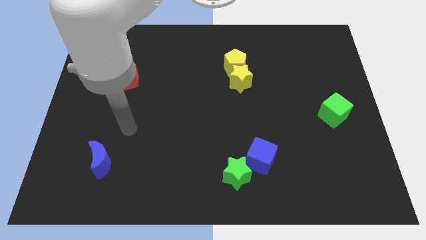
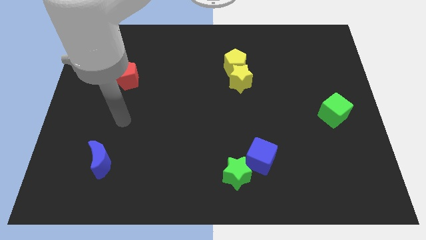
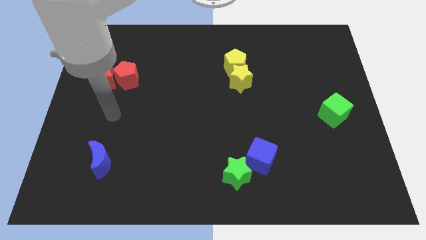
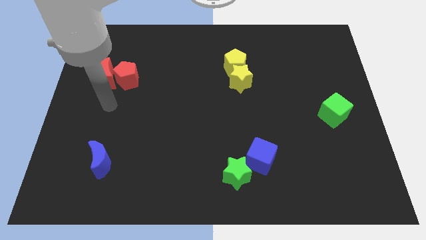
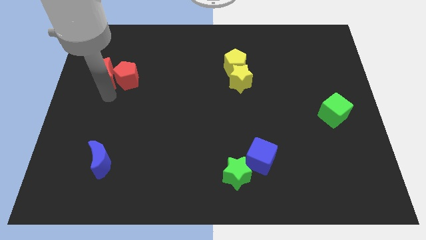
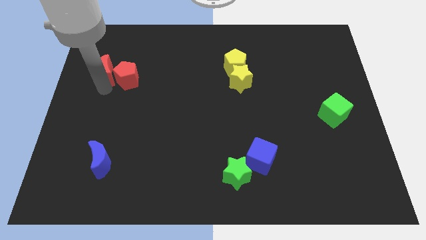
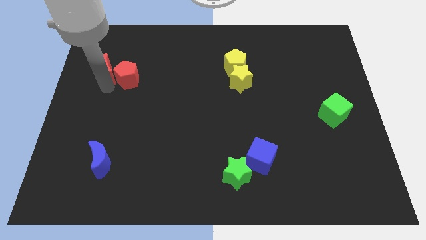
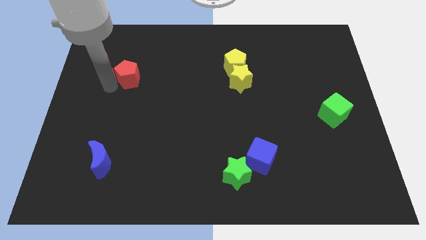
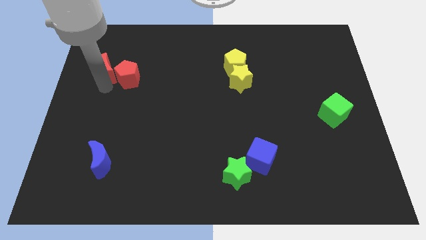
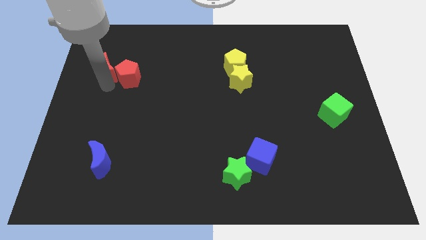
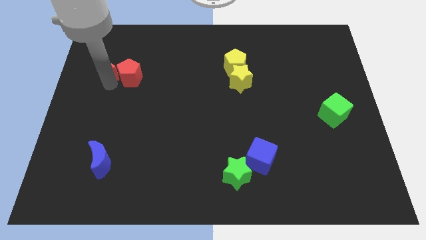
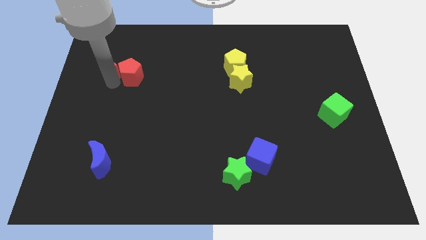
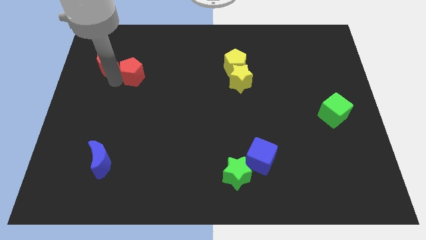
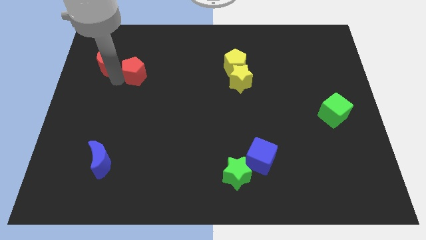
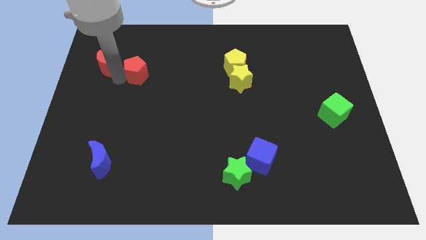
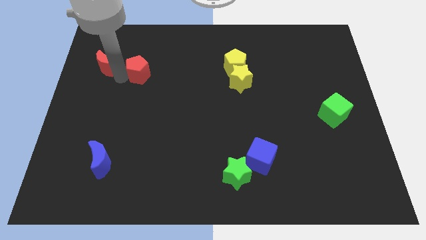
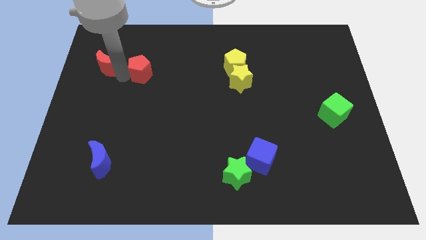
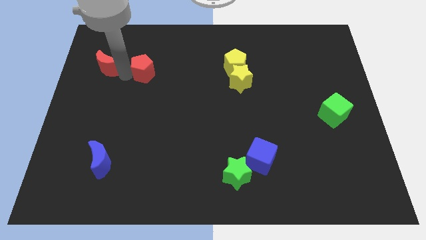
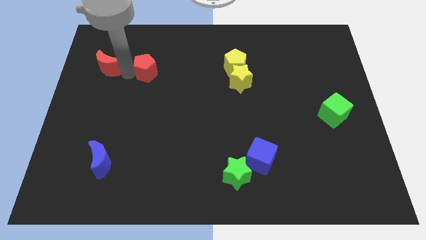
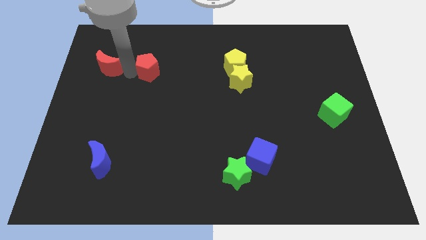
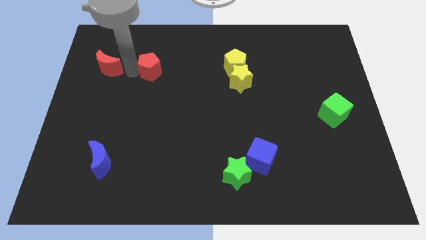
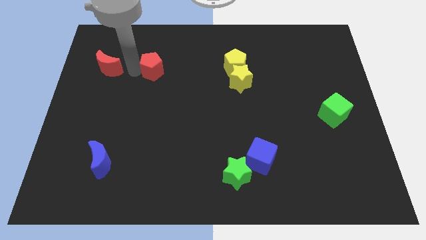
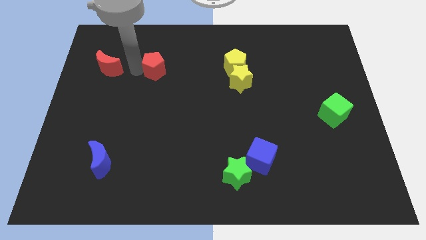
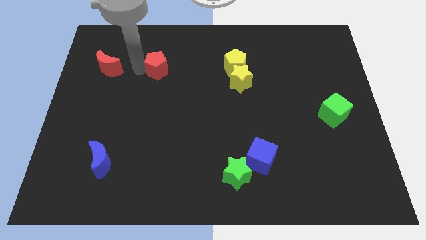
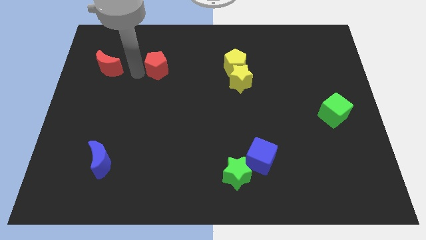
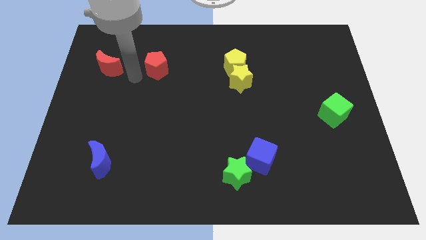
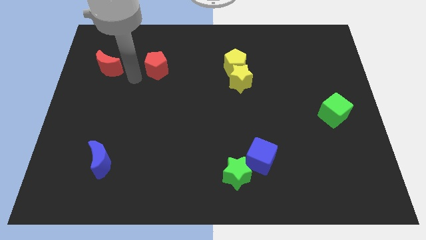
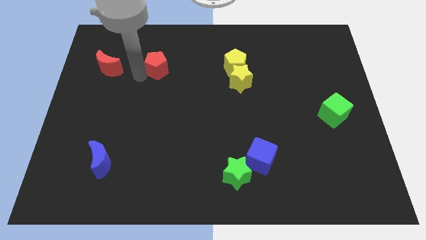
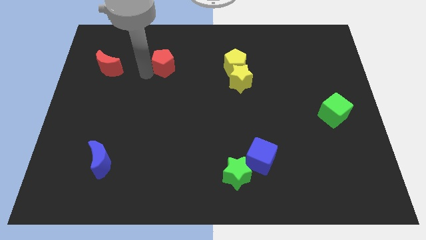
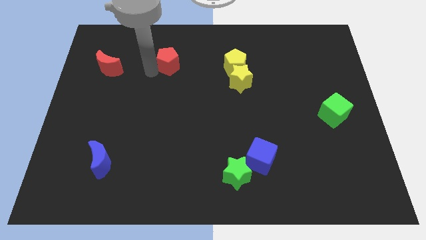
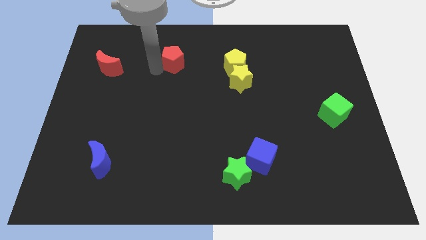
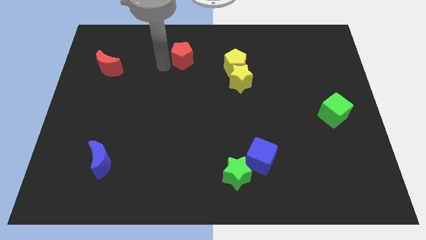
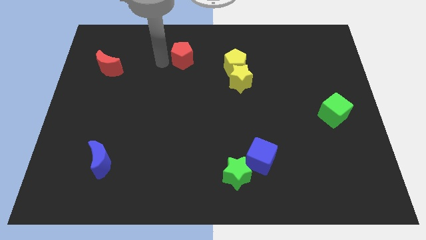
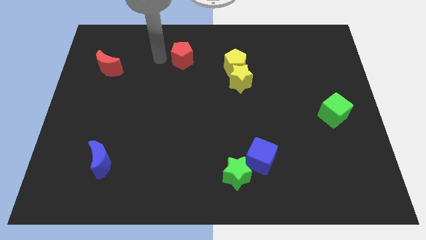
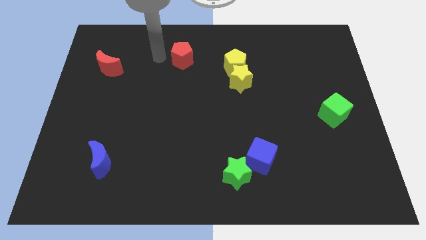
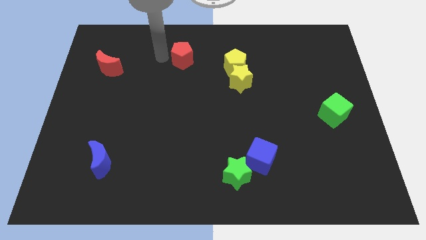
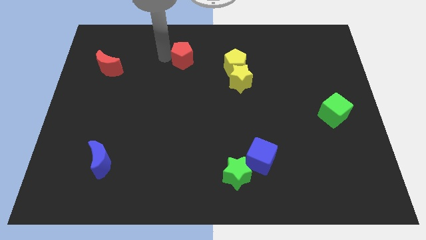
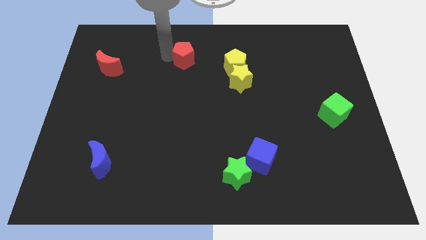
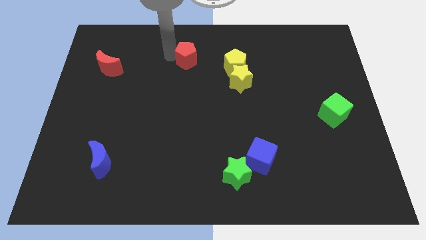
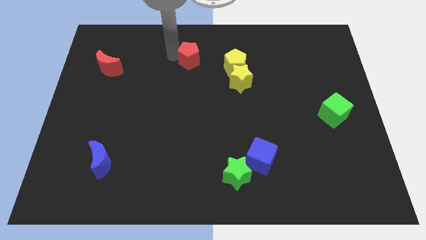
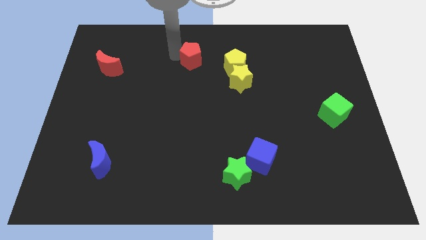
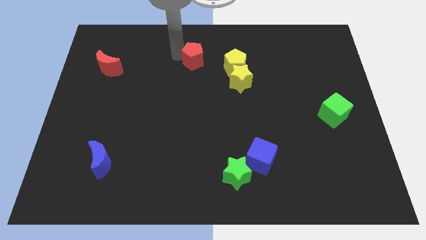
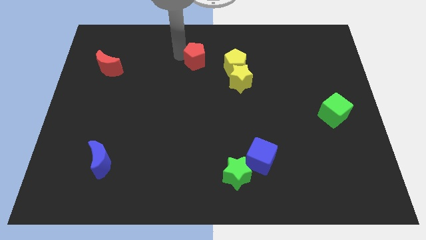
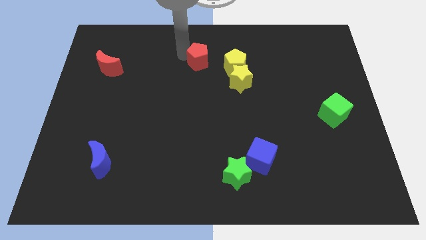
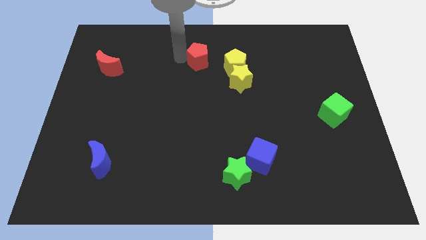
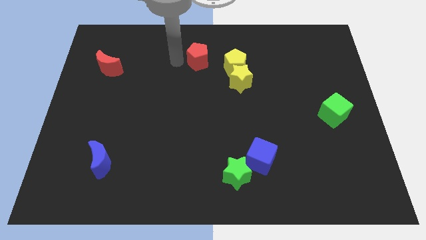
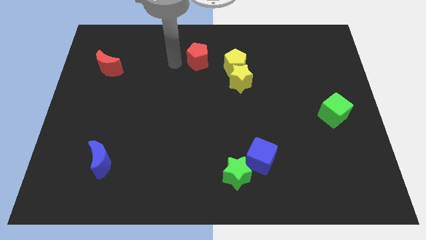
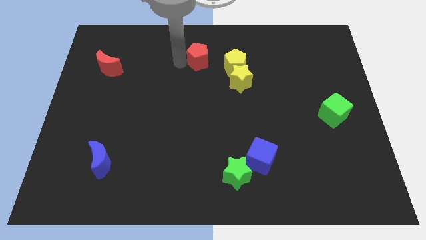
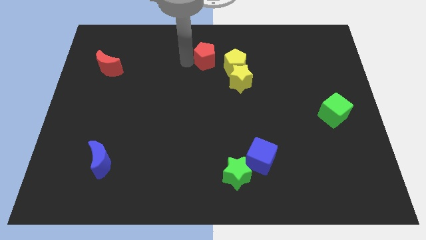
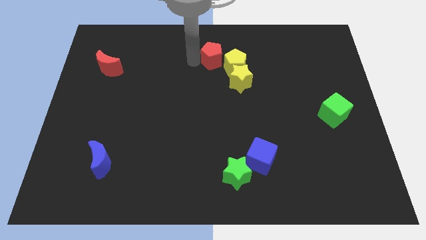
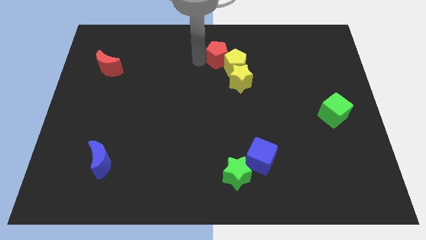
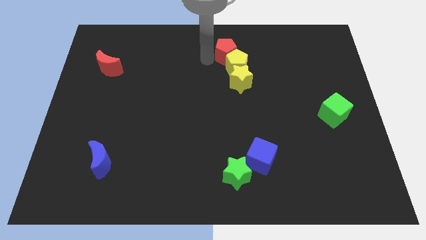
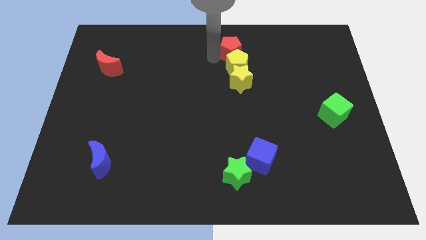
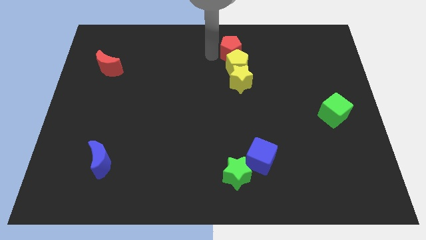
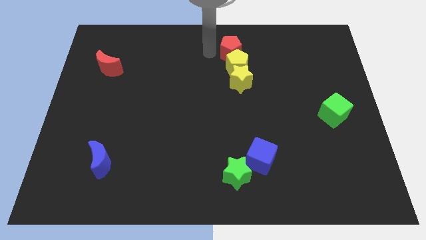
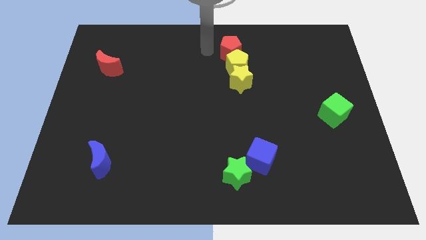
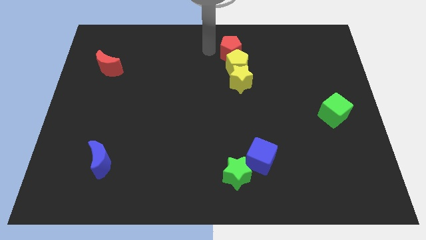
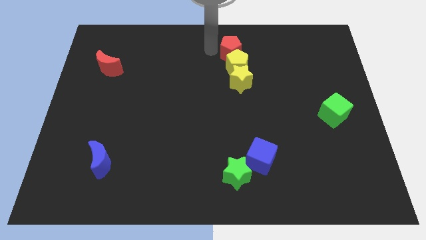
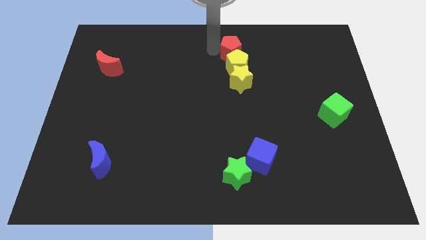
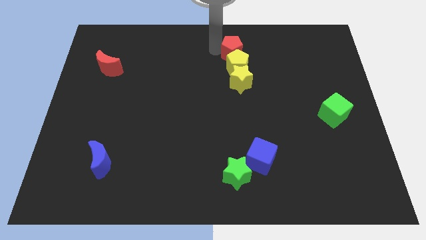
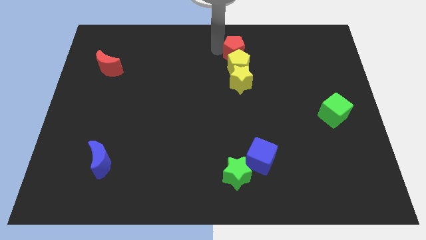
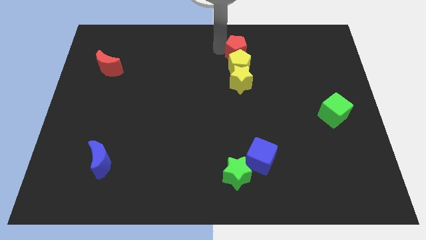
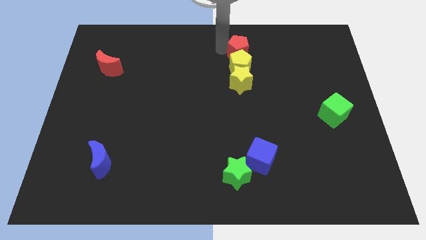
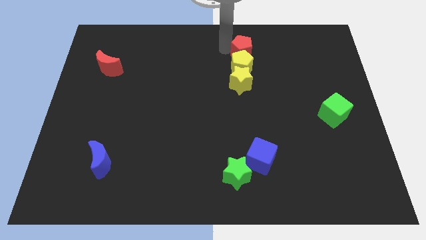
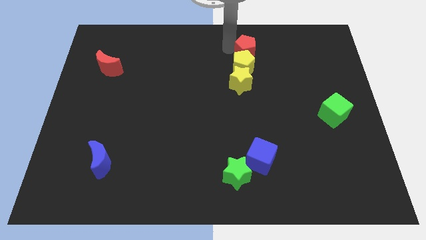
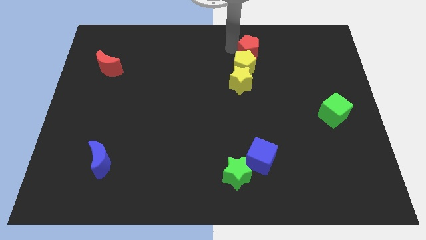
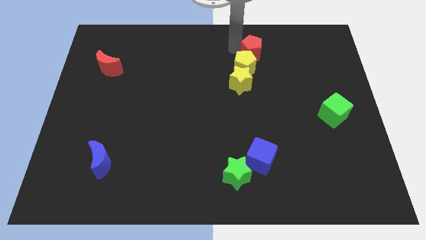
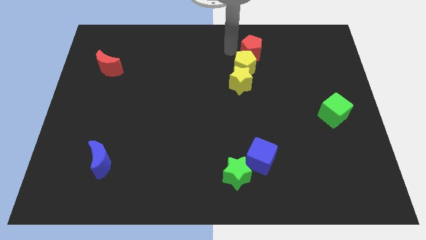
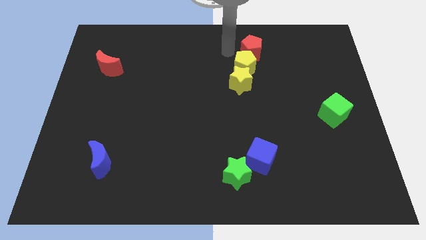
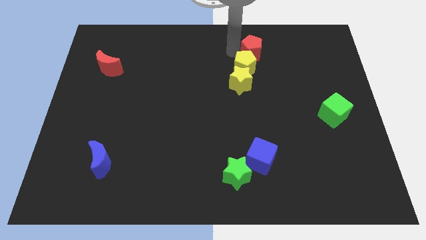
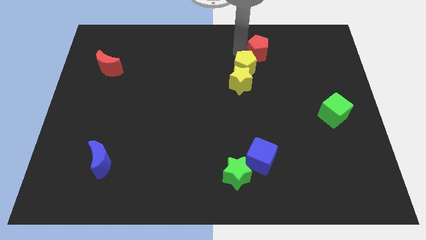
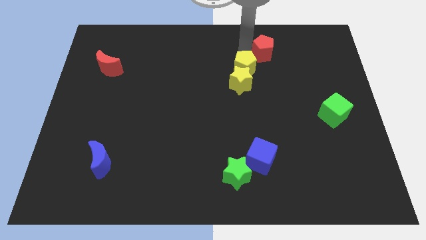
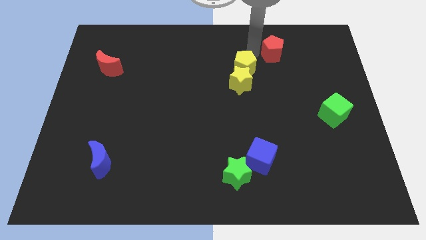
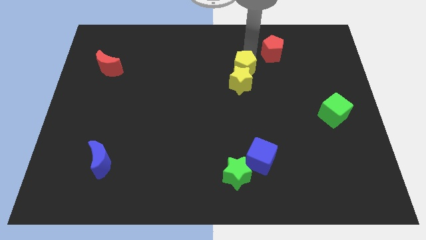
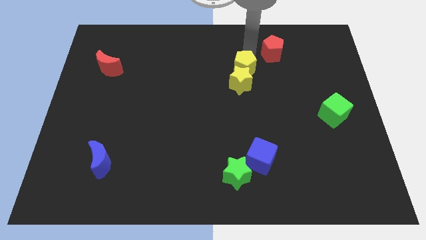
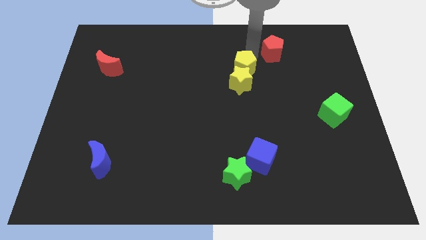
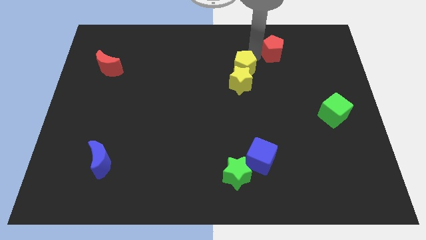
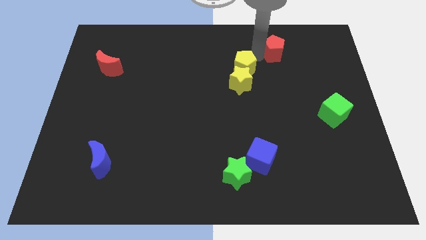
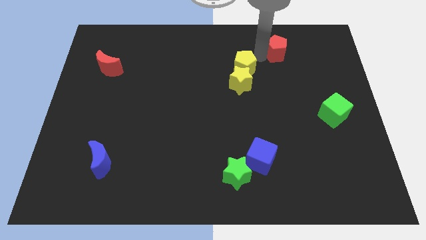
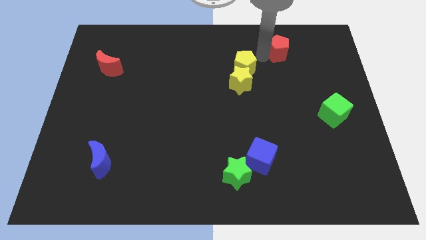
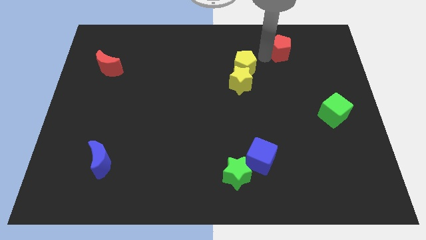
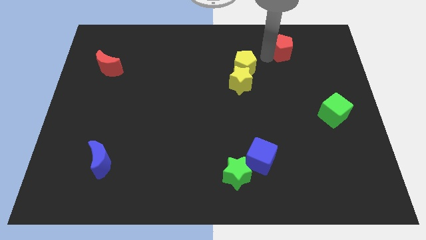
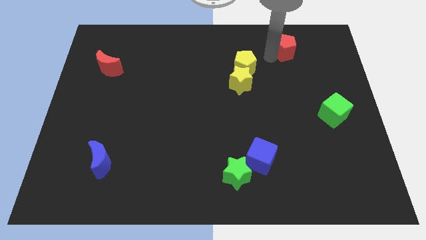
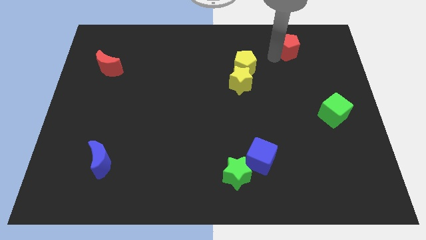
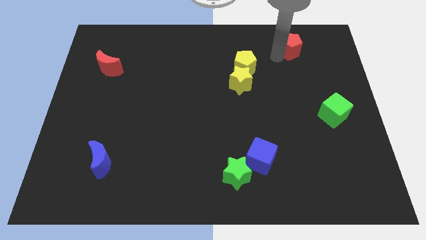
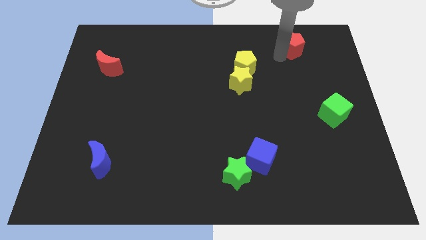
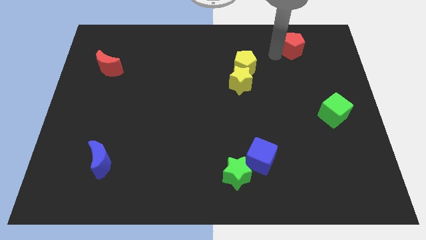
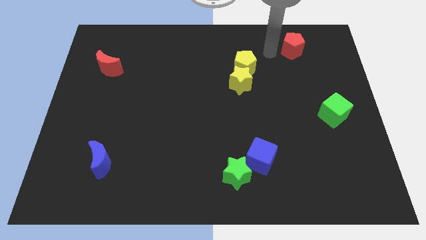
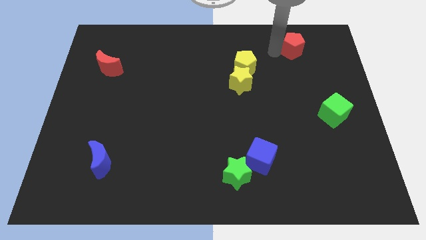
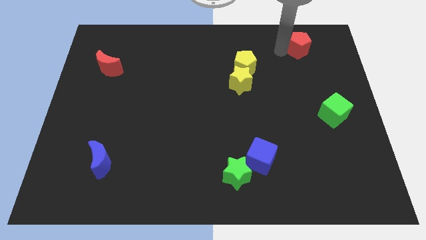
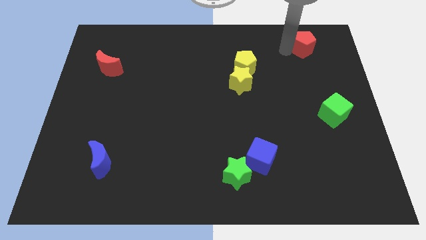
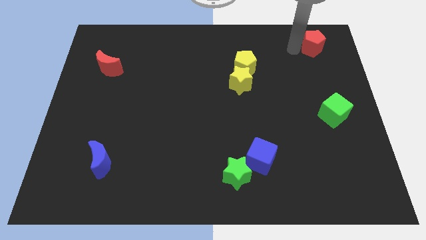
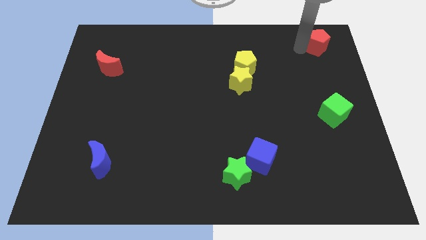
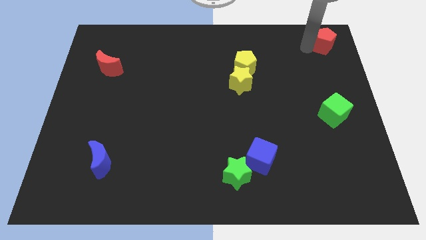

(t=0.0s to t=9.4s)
move the red pentagon to the top right corner
